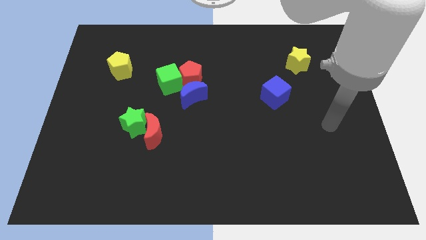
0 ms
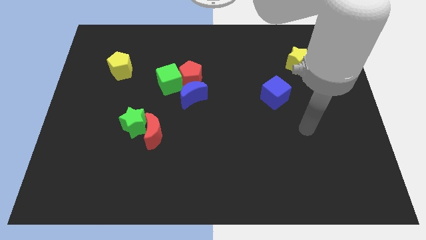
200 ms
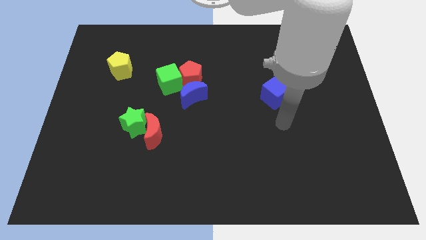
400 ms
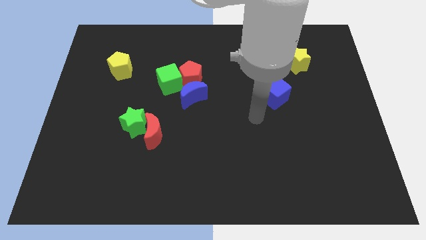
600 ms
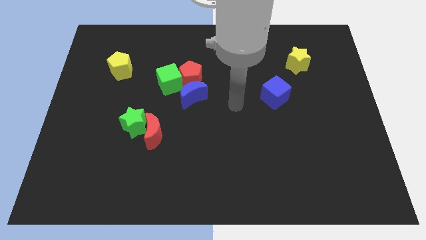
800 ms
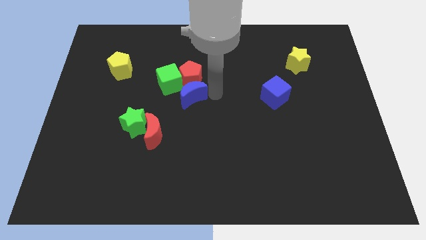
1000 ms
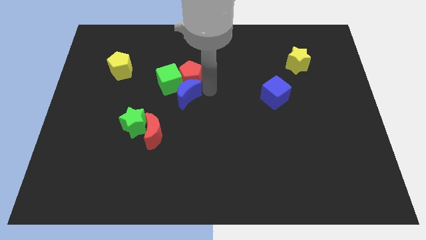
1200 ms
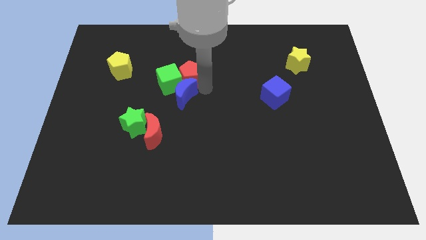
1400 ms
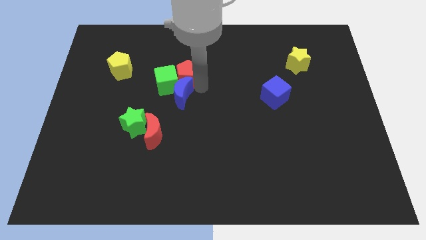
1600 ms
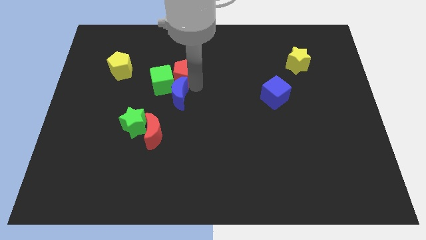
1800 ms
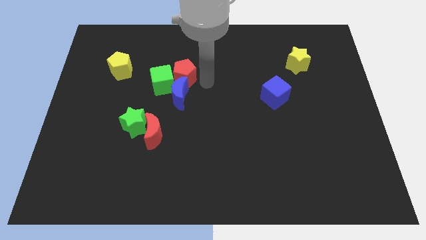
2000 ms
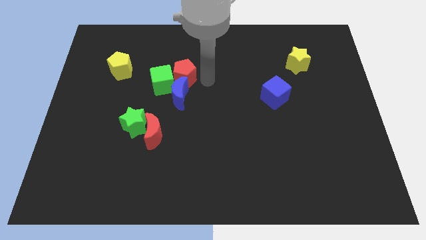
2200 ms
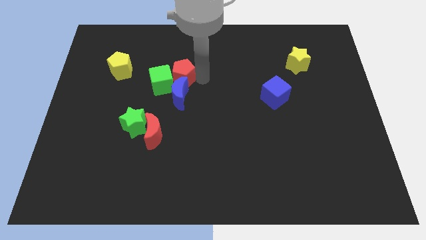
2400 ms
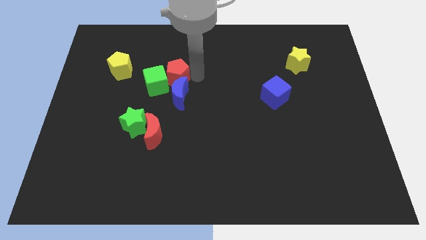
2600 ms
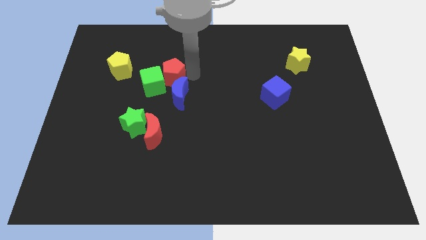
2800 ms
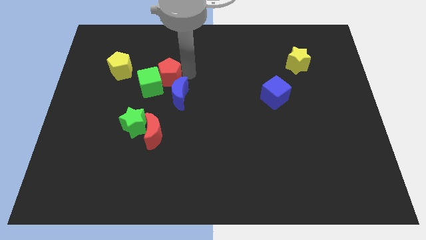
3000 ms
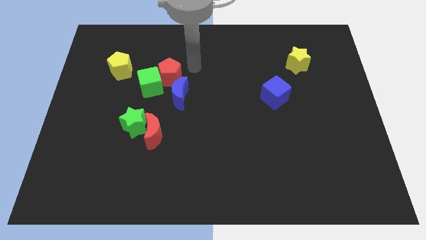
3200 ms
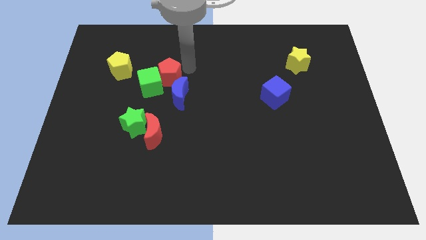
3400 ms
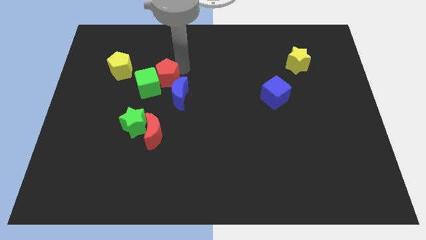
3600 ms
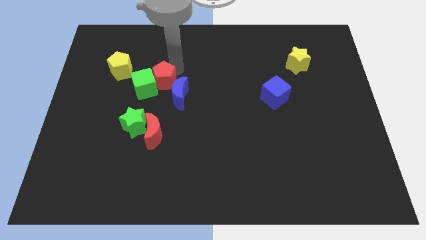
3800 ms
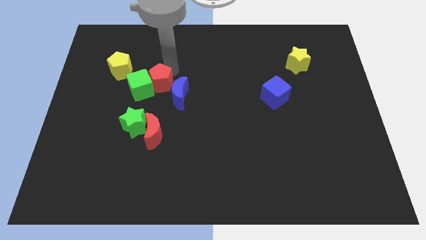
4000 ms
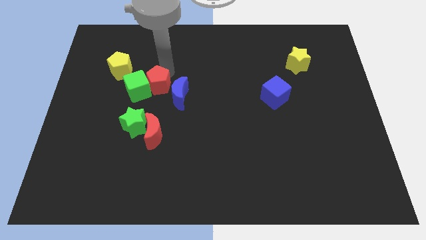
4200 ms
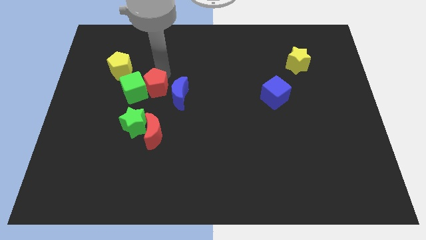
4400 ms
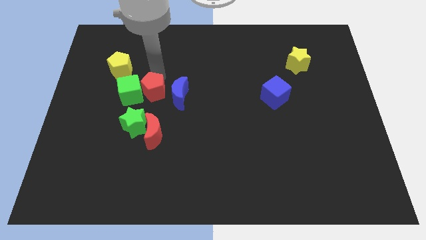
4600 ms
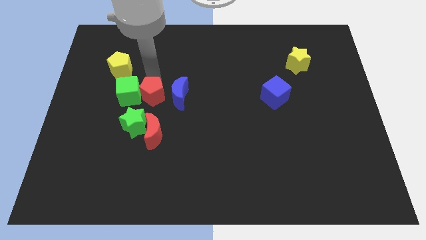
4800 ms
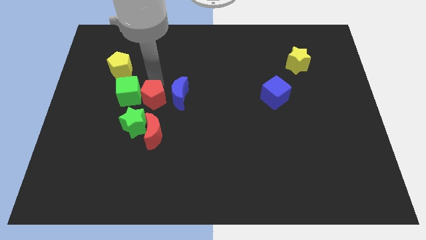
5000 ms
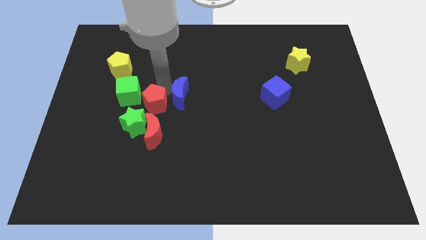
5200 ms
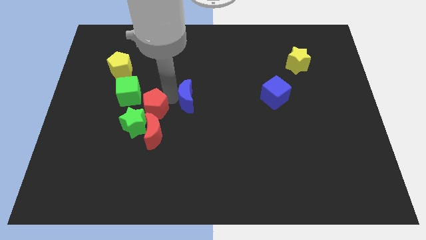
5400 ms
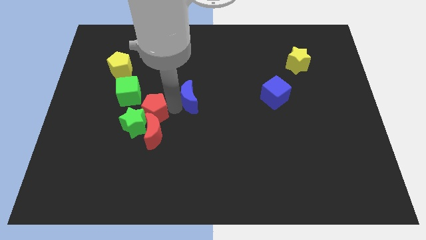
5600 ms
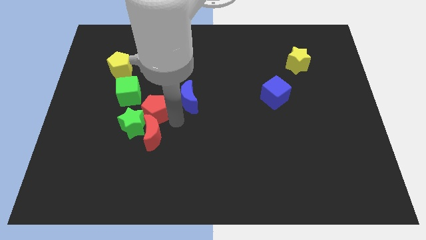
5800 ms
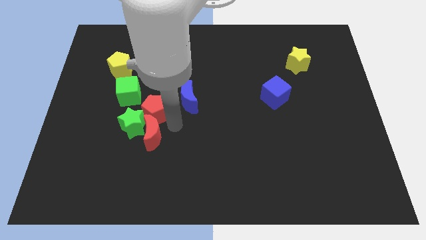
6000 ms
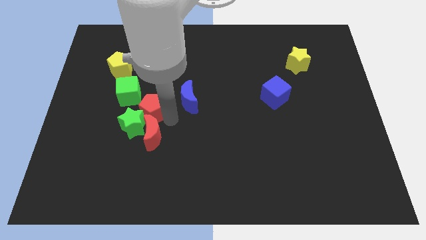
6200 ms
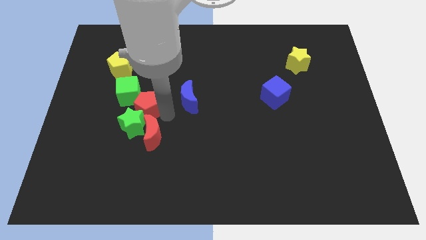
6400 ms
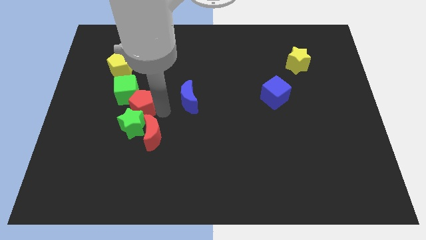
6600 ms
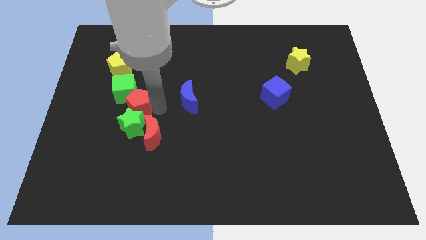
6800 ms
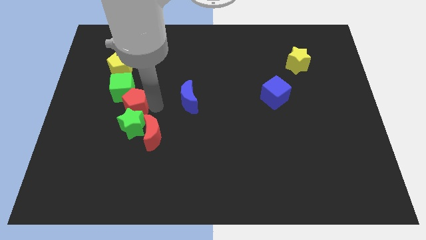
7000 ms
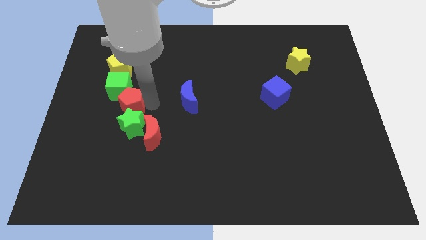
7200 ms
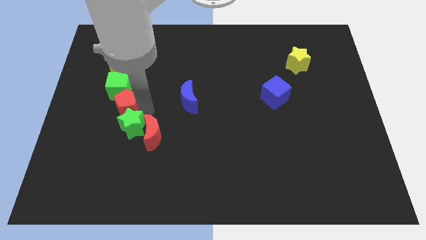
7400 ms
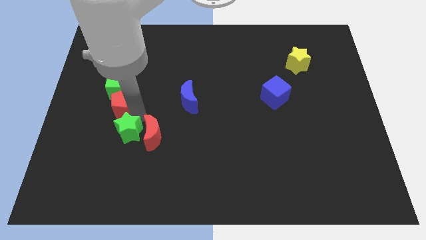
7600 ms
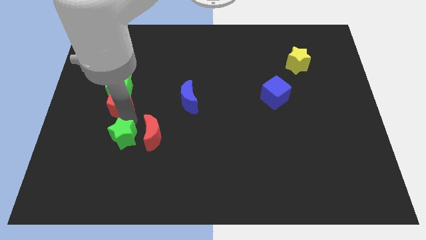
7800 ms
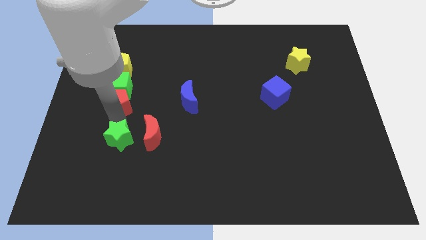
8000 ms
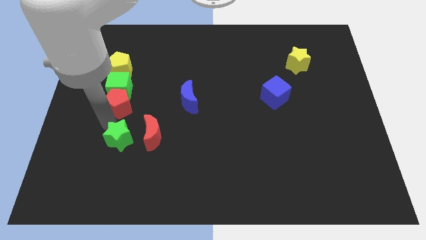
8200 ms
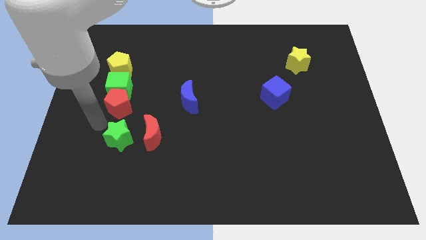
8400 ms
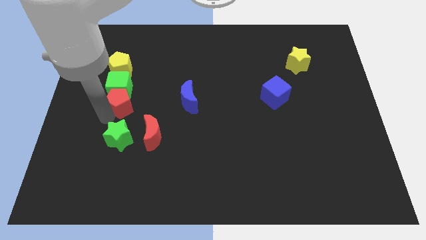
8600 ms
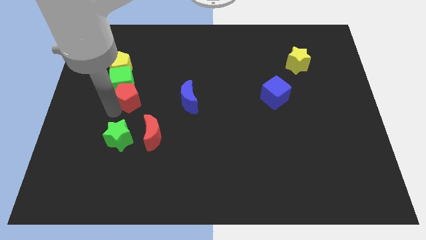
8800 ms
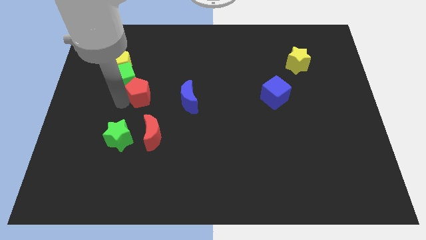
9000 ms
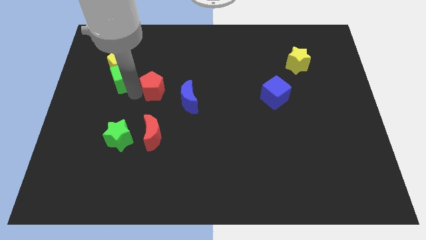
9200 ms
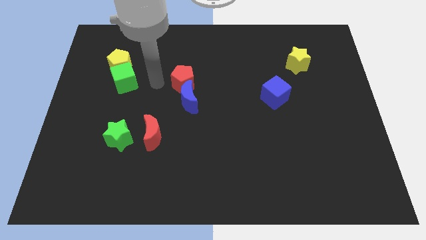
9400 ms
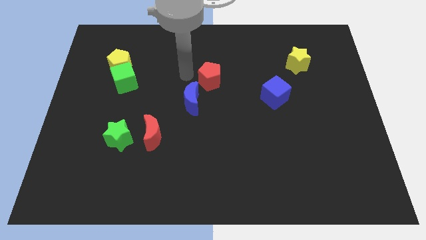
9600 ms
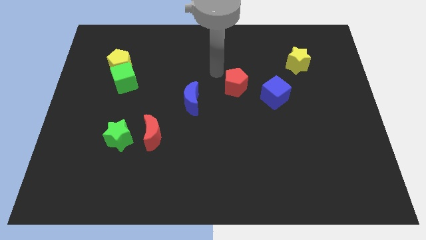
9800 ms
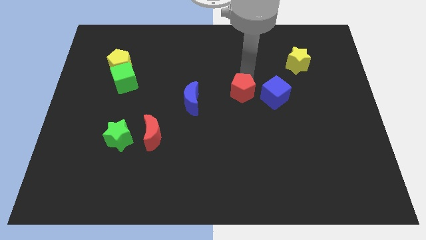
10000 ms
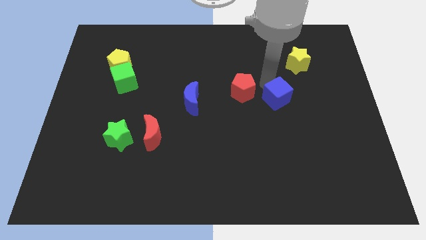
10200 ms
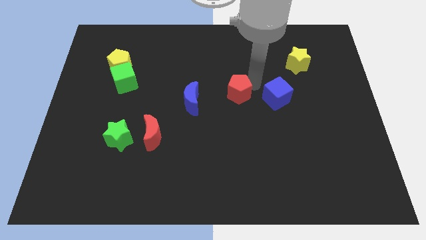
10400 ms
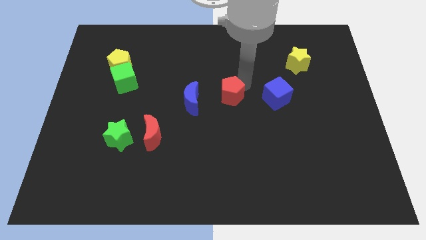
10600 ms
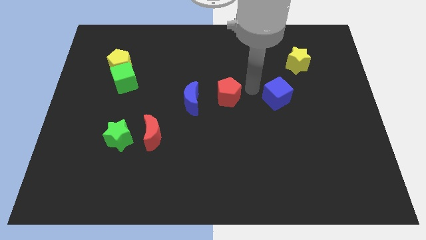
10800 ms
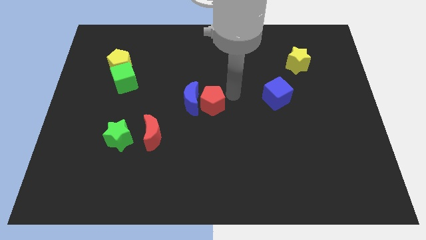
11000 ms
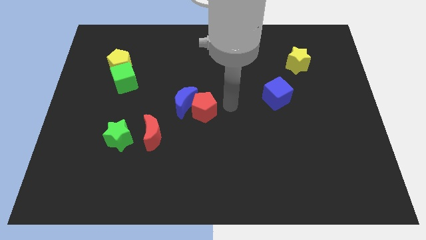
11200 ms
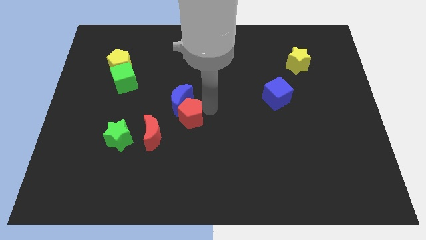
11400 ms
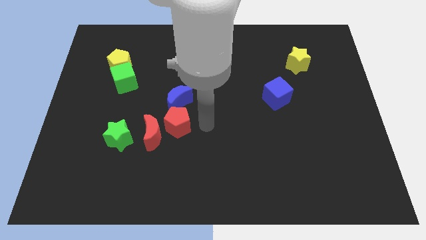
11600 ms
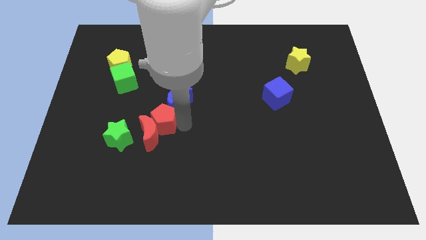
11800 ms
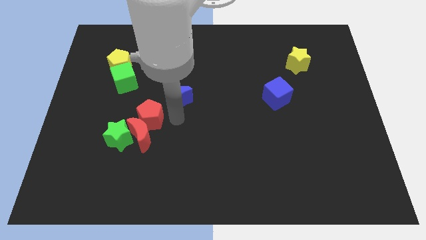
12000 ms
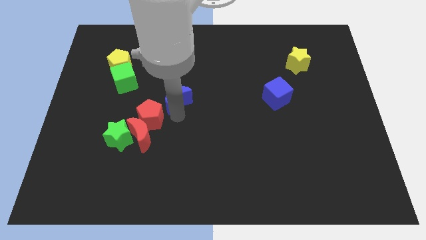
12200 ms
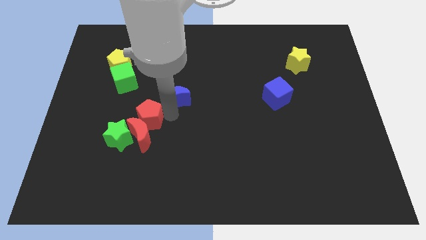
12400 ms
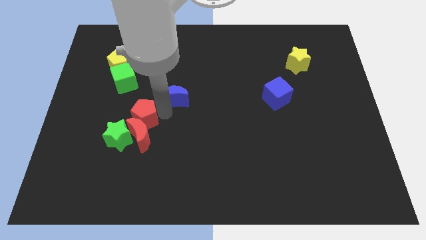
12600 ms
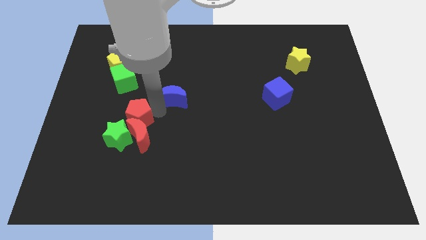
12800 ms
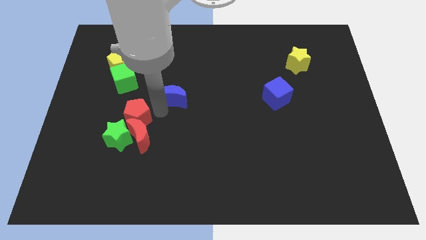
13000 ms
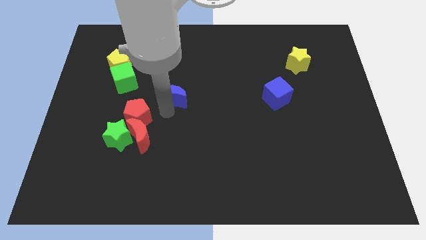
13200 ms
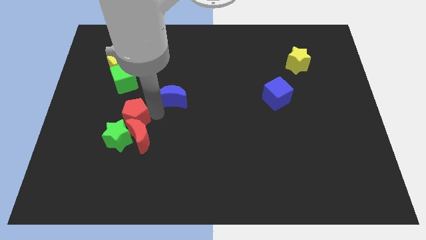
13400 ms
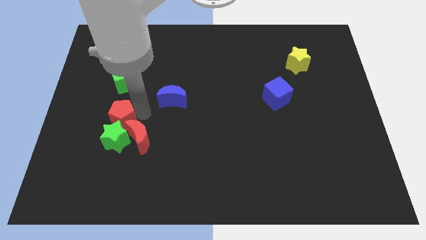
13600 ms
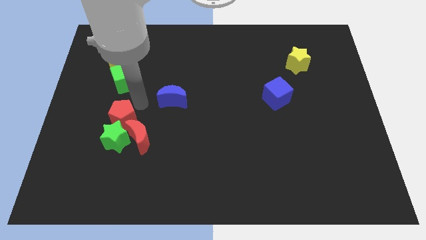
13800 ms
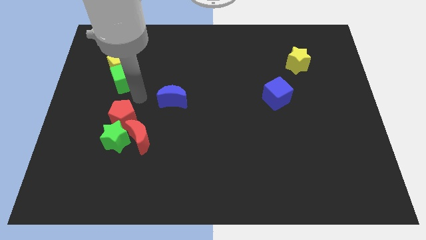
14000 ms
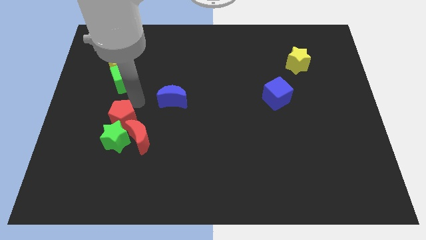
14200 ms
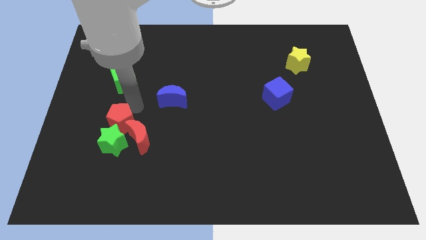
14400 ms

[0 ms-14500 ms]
move the red pentagon downwards and to the left

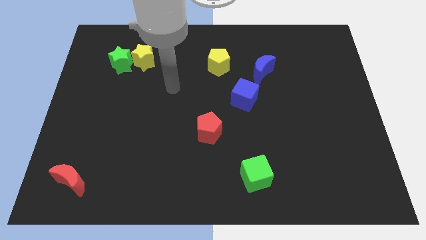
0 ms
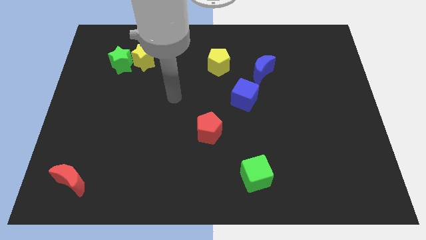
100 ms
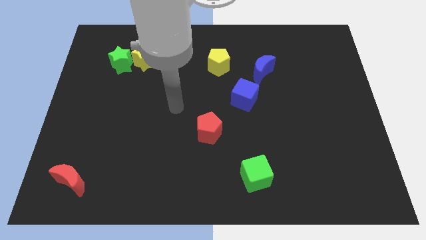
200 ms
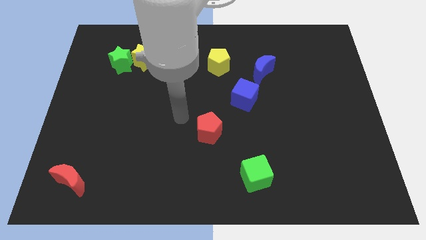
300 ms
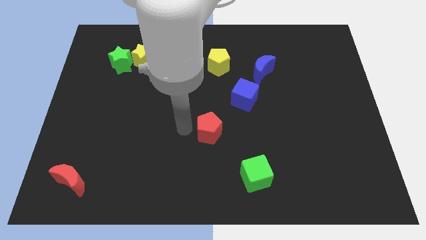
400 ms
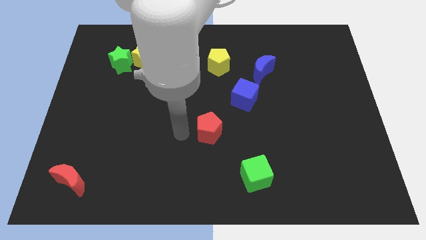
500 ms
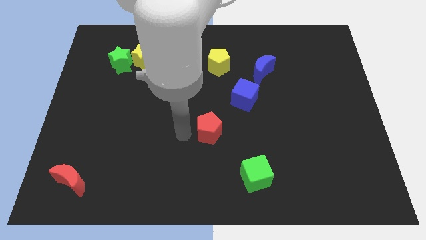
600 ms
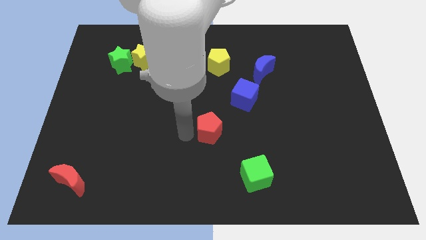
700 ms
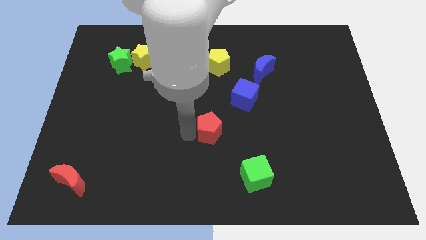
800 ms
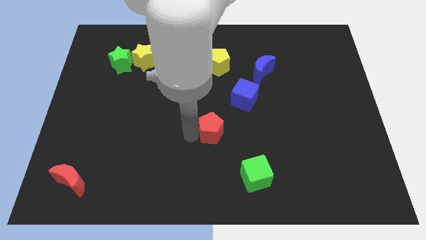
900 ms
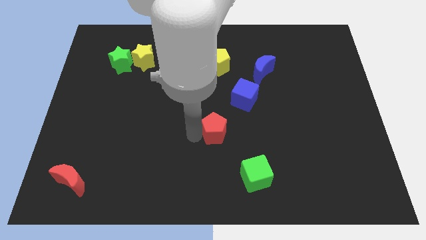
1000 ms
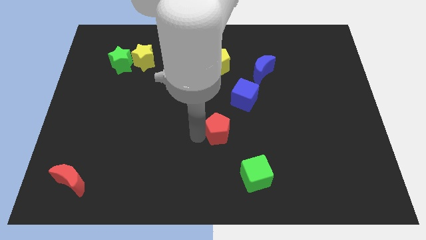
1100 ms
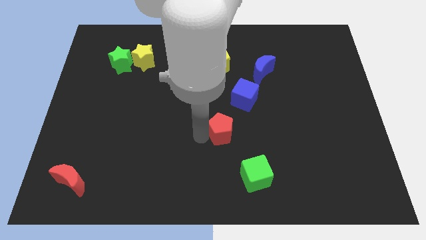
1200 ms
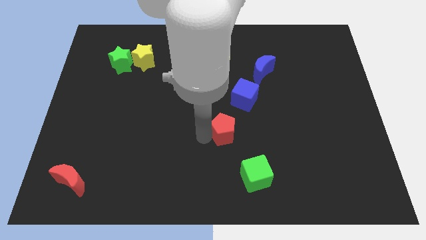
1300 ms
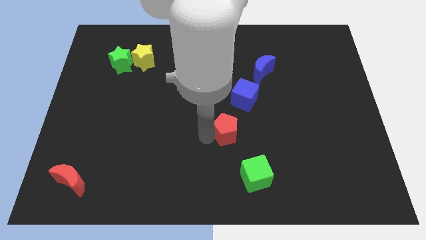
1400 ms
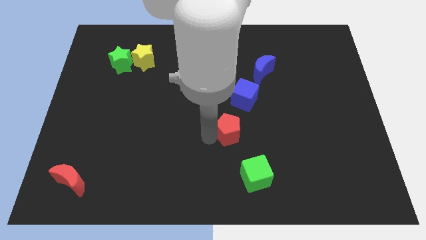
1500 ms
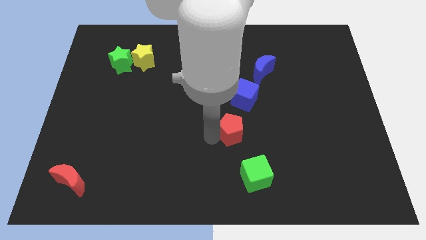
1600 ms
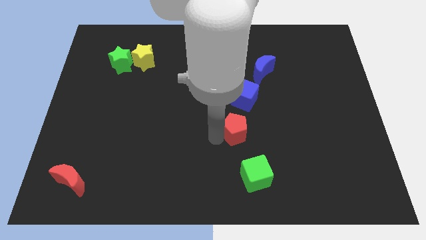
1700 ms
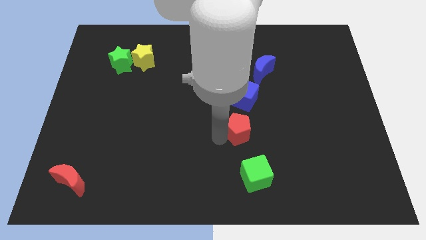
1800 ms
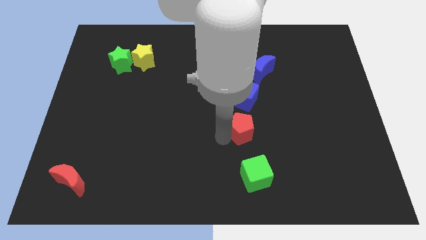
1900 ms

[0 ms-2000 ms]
slide the red pentagon right a little bit
